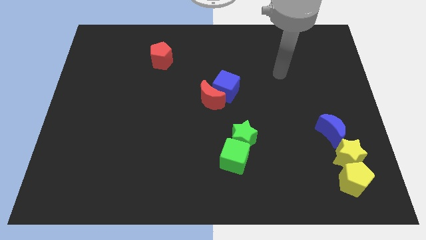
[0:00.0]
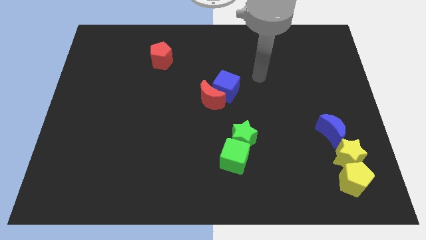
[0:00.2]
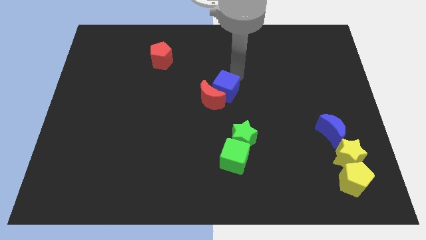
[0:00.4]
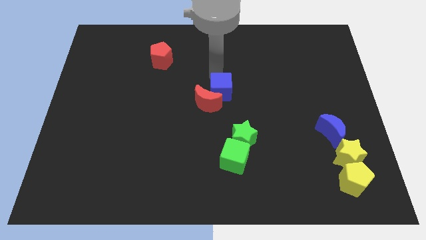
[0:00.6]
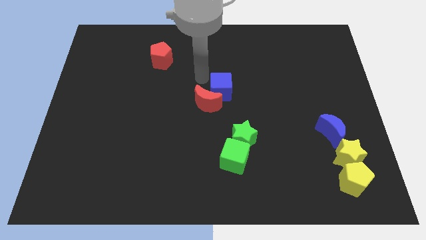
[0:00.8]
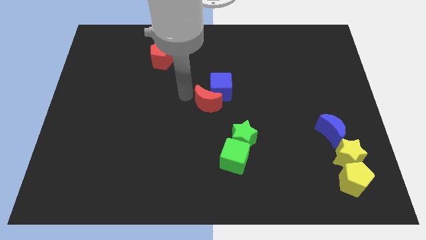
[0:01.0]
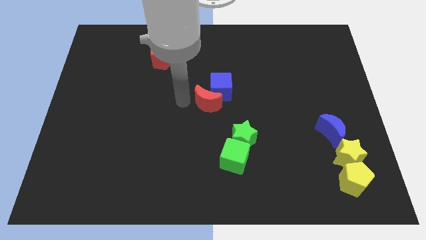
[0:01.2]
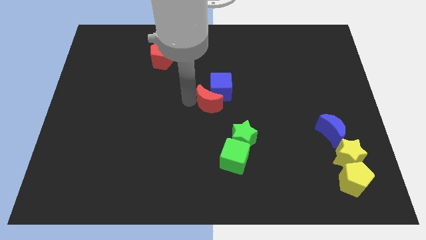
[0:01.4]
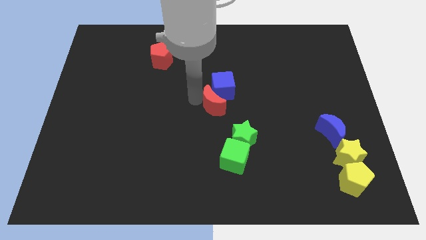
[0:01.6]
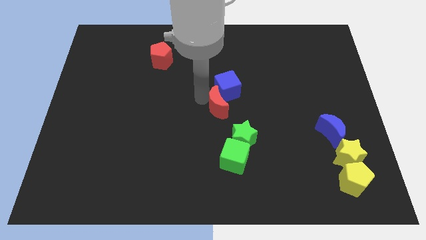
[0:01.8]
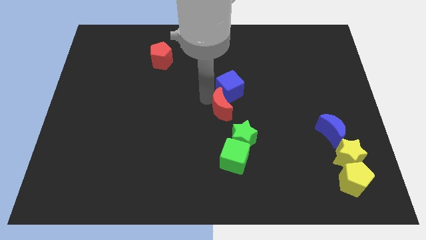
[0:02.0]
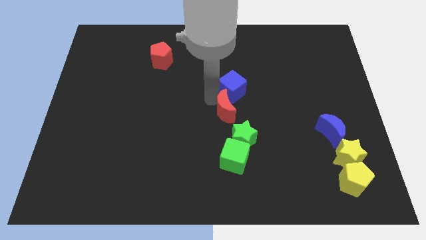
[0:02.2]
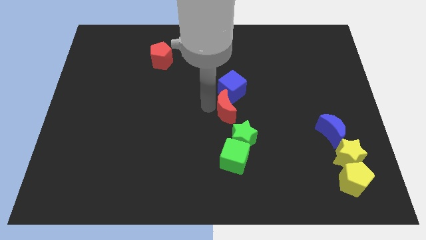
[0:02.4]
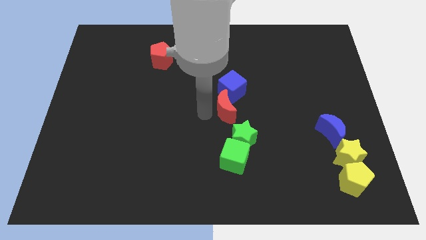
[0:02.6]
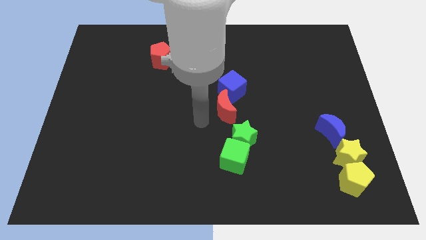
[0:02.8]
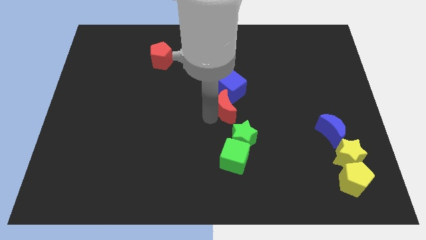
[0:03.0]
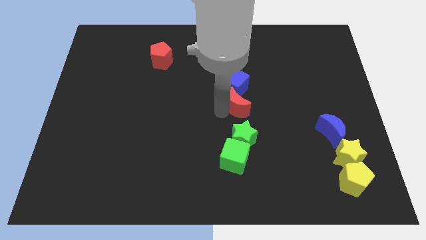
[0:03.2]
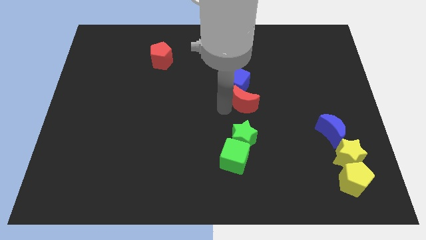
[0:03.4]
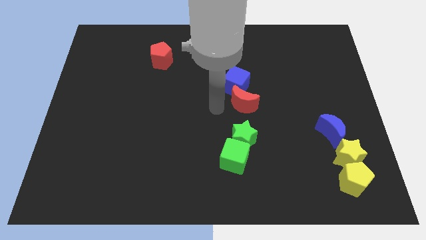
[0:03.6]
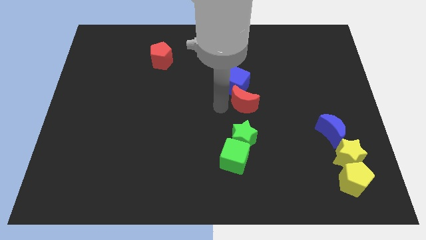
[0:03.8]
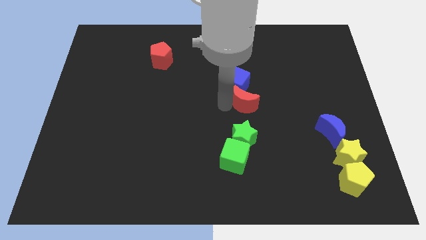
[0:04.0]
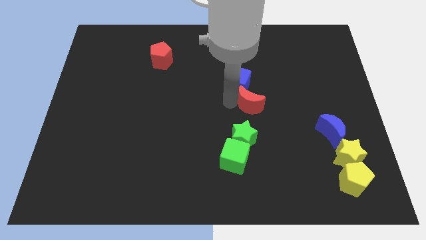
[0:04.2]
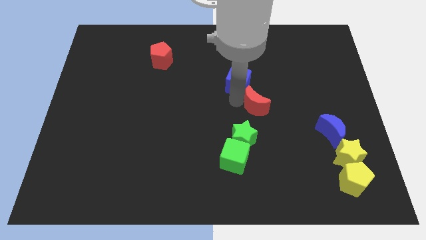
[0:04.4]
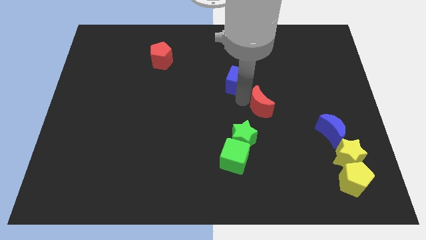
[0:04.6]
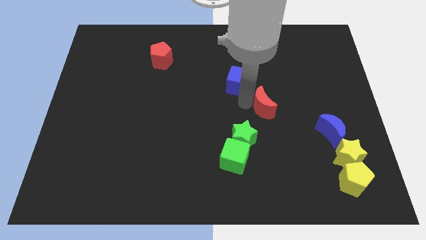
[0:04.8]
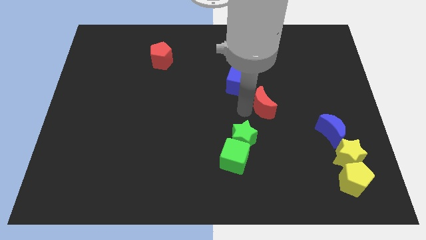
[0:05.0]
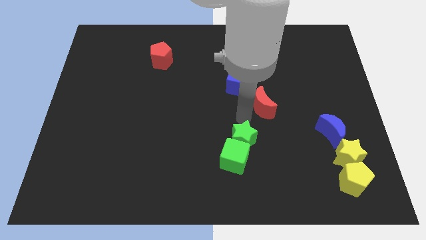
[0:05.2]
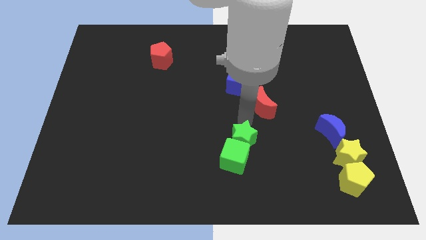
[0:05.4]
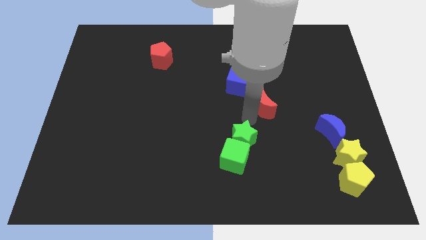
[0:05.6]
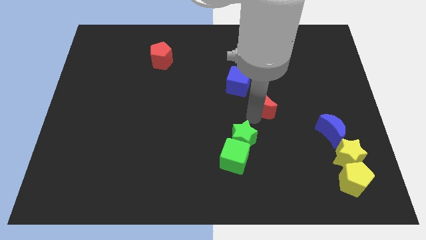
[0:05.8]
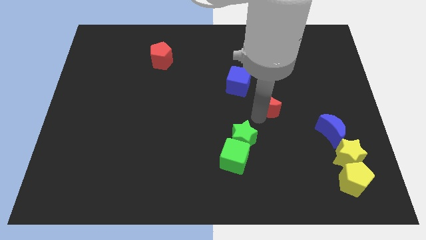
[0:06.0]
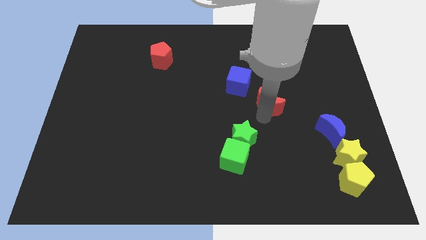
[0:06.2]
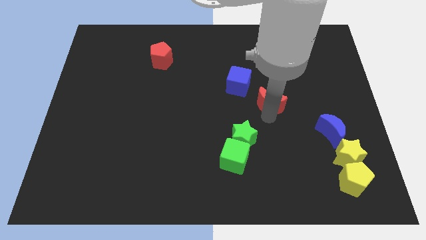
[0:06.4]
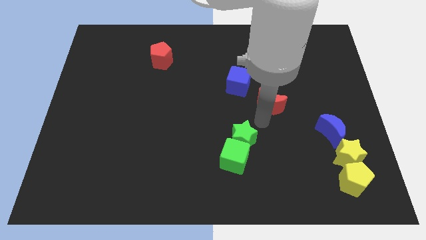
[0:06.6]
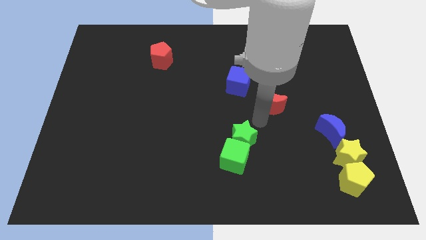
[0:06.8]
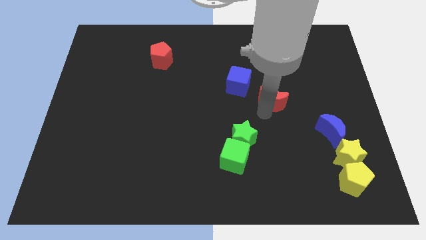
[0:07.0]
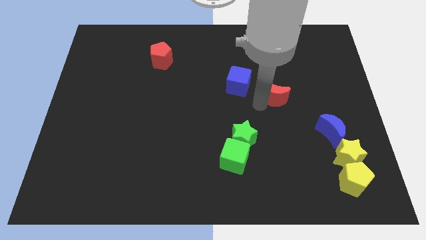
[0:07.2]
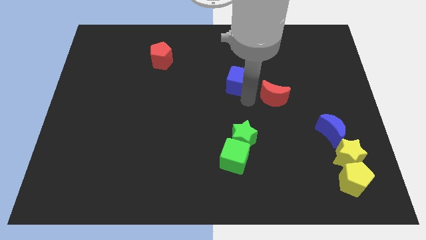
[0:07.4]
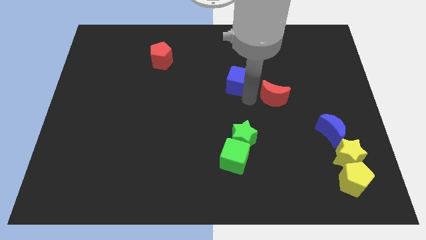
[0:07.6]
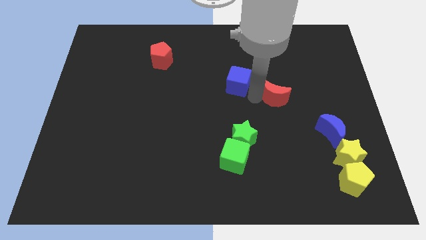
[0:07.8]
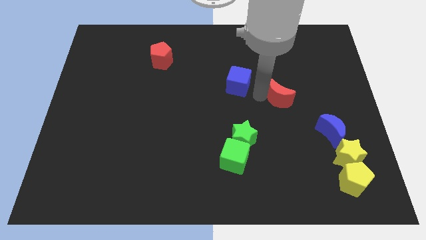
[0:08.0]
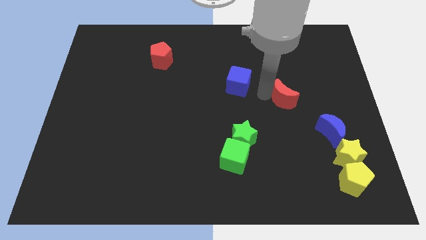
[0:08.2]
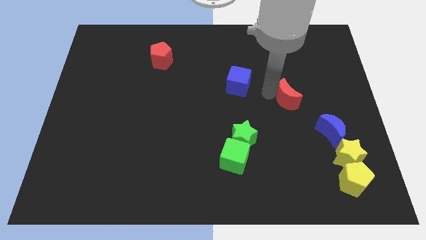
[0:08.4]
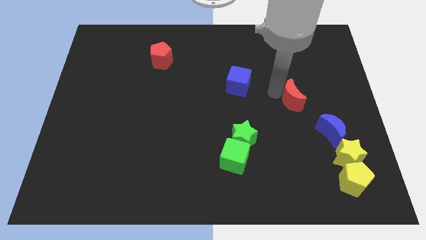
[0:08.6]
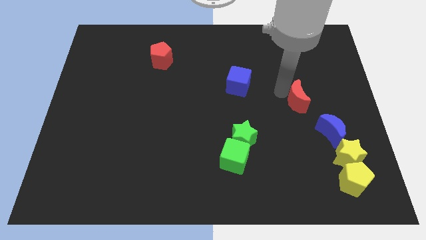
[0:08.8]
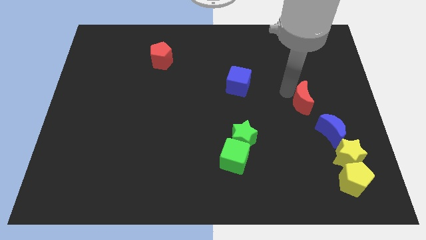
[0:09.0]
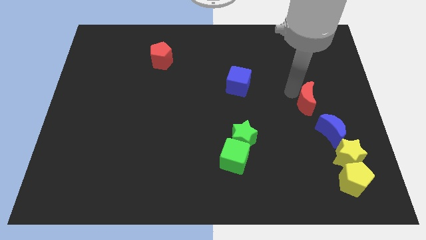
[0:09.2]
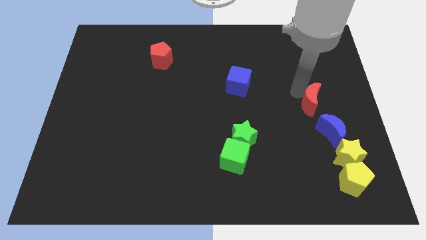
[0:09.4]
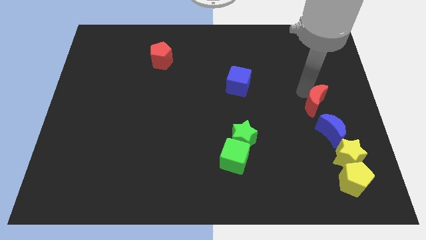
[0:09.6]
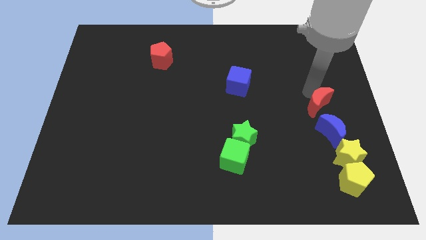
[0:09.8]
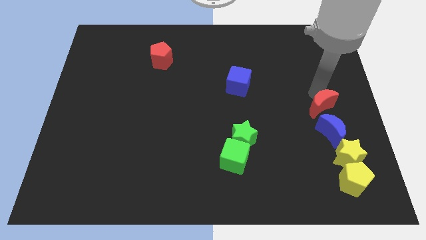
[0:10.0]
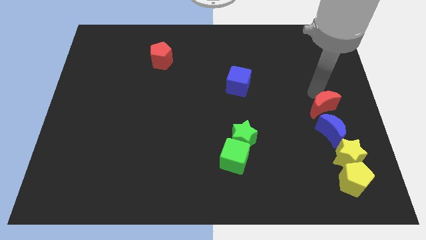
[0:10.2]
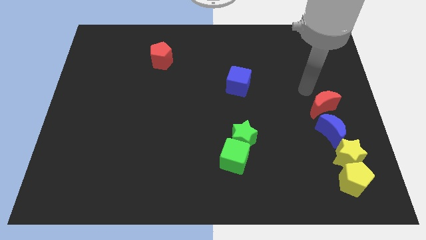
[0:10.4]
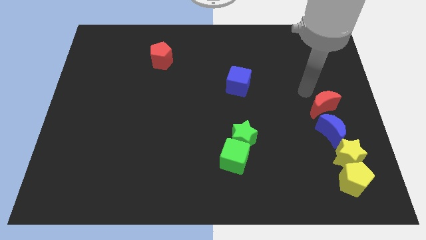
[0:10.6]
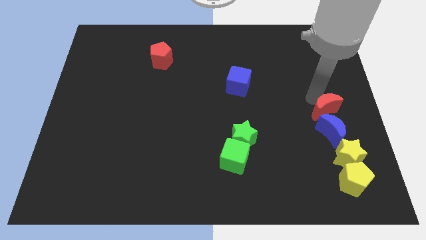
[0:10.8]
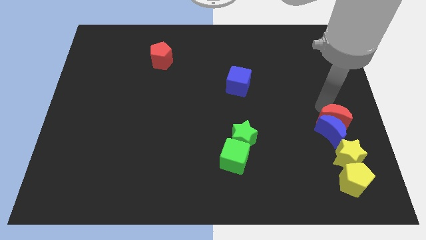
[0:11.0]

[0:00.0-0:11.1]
put the red moon above the yellow pentagon

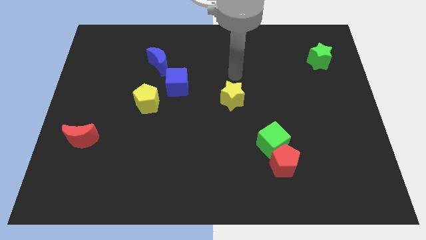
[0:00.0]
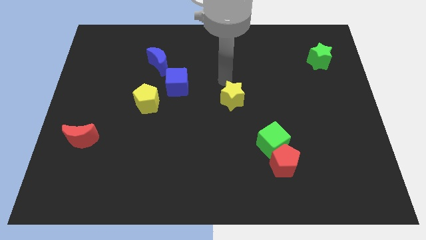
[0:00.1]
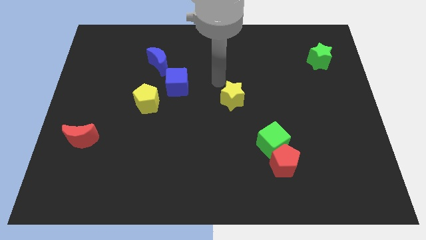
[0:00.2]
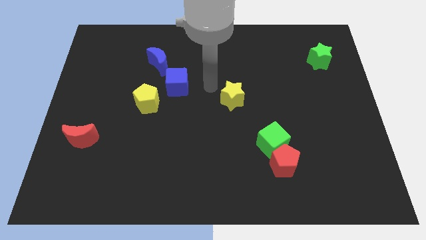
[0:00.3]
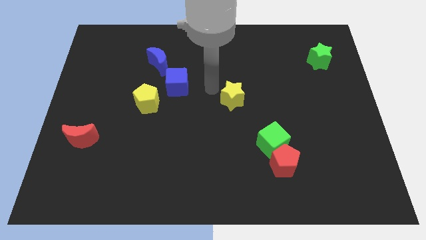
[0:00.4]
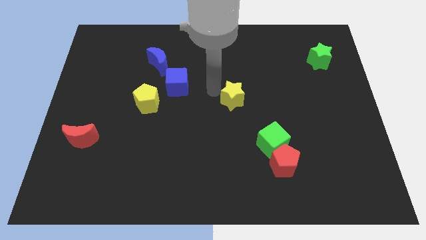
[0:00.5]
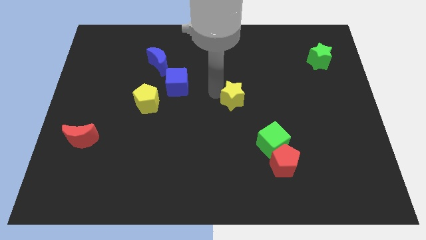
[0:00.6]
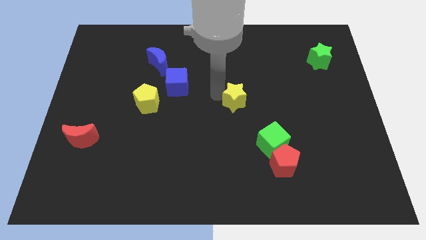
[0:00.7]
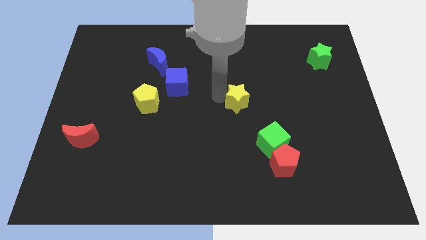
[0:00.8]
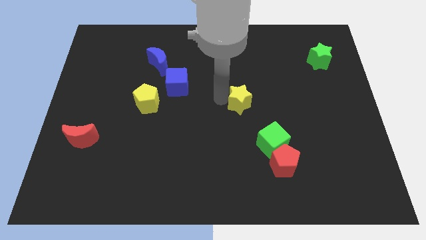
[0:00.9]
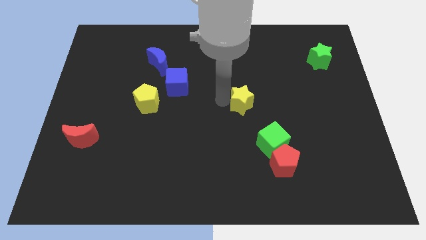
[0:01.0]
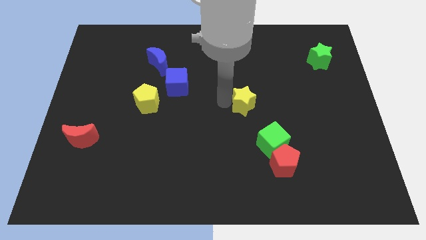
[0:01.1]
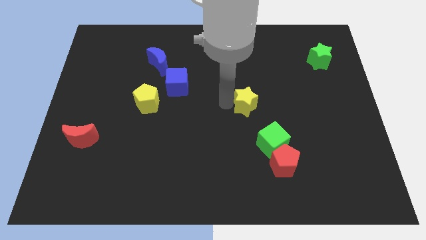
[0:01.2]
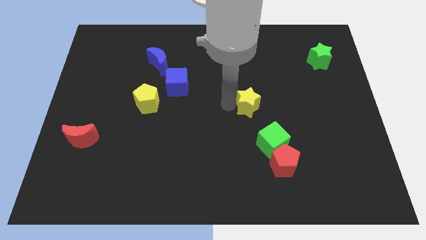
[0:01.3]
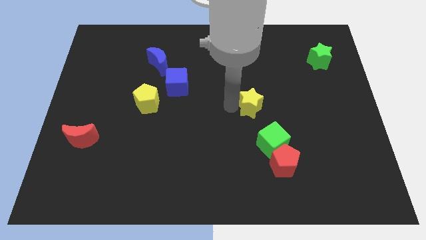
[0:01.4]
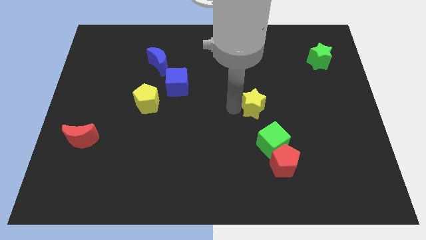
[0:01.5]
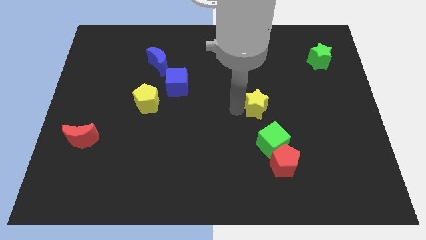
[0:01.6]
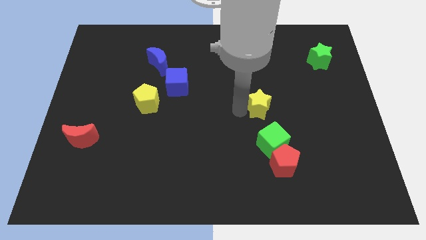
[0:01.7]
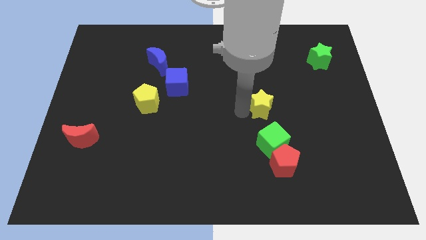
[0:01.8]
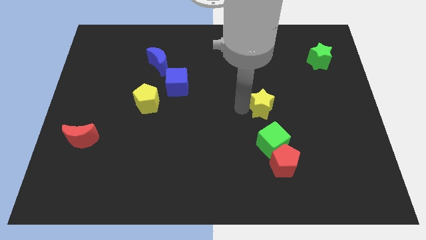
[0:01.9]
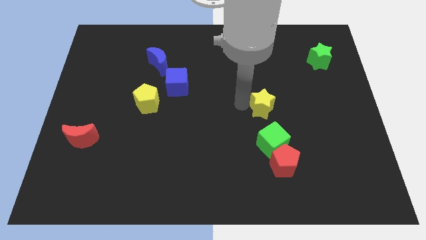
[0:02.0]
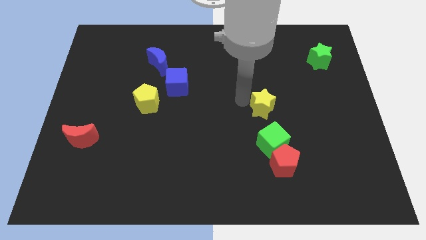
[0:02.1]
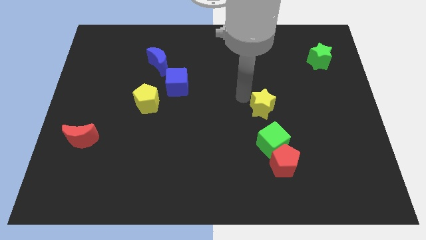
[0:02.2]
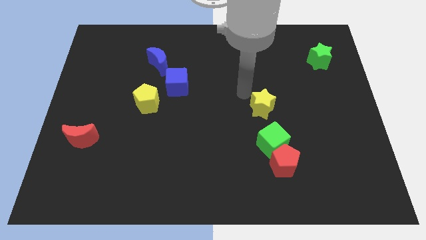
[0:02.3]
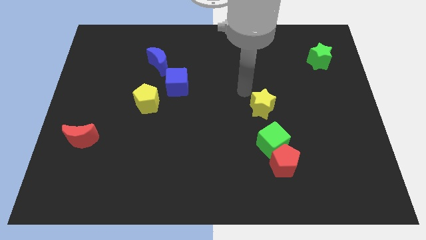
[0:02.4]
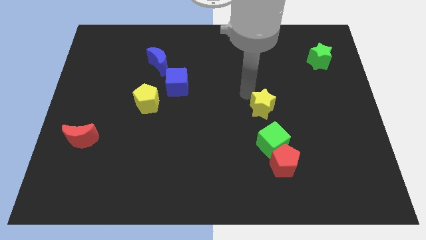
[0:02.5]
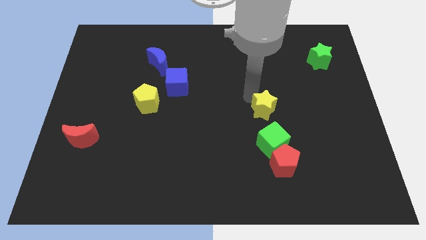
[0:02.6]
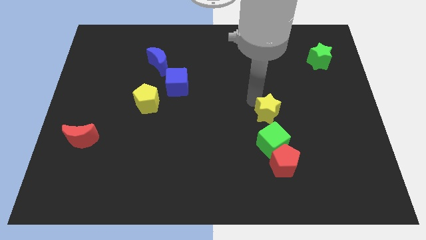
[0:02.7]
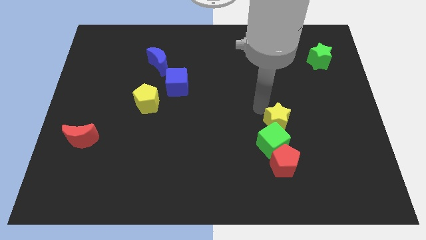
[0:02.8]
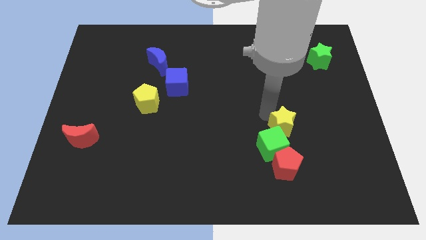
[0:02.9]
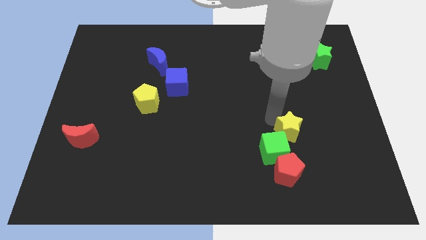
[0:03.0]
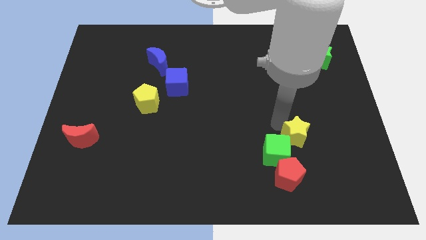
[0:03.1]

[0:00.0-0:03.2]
move the yellow star to the top right of the red pentagon
